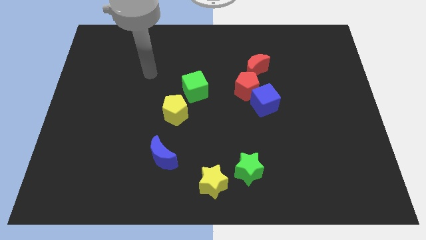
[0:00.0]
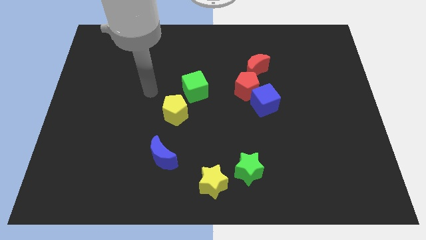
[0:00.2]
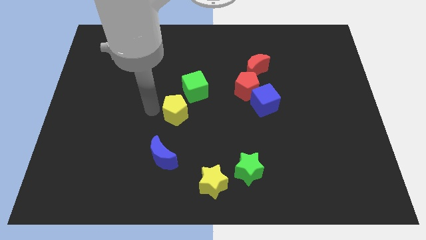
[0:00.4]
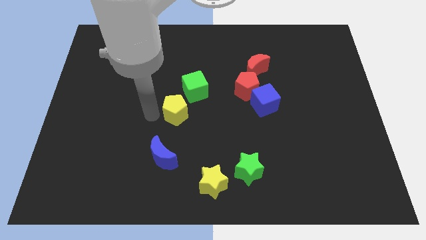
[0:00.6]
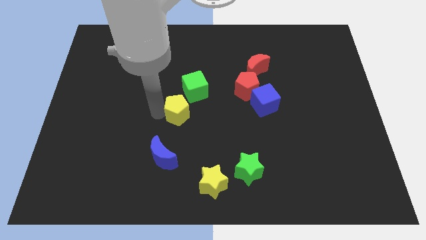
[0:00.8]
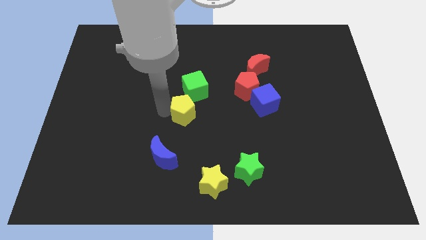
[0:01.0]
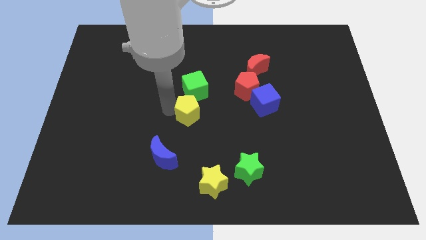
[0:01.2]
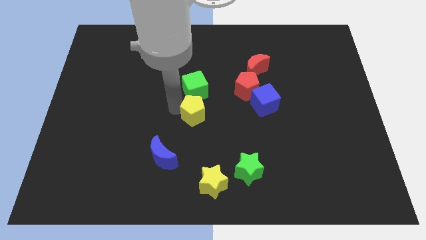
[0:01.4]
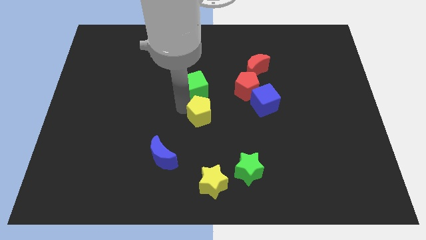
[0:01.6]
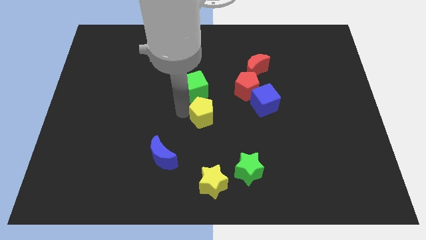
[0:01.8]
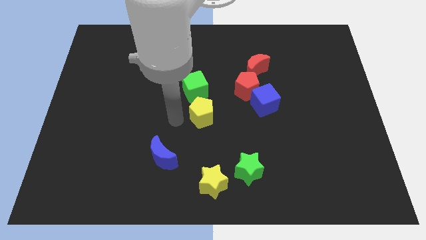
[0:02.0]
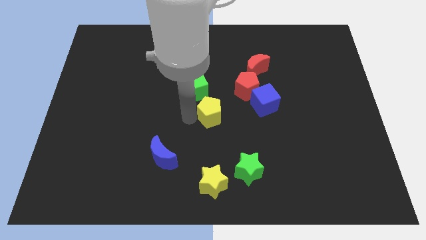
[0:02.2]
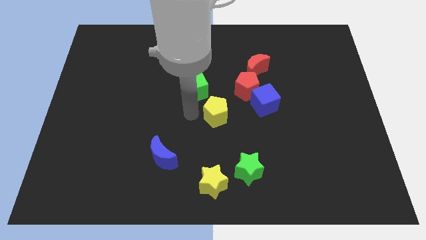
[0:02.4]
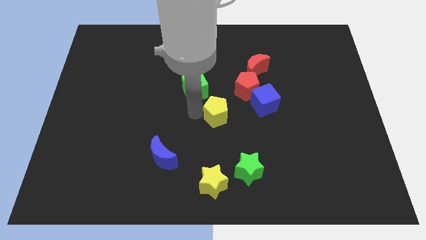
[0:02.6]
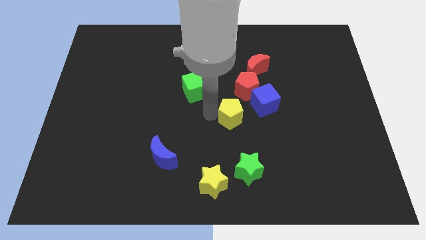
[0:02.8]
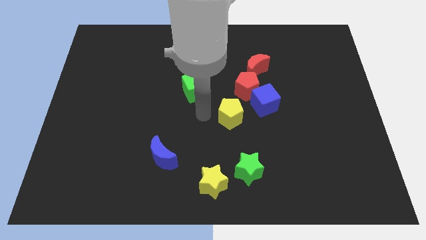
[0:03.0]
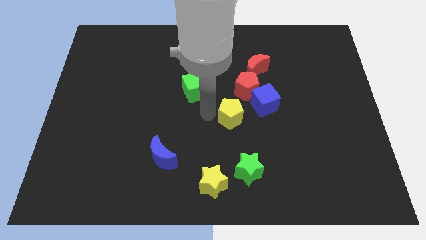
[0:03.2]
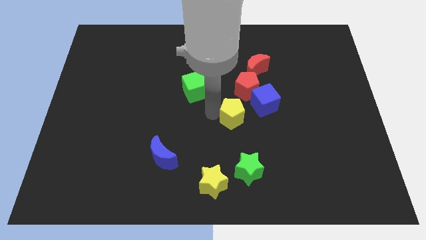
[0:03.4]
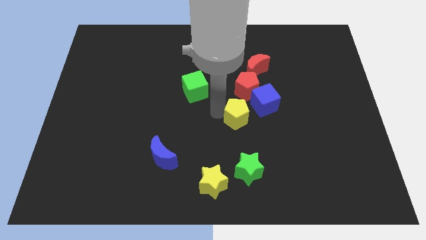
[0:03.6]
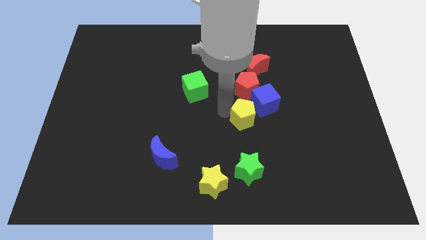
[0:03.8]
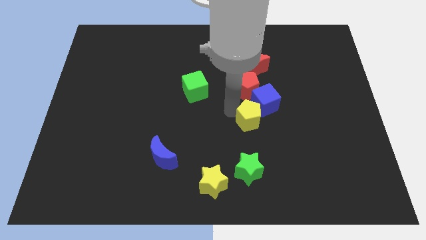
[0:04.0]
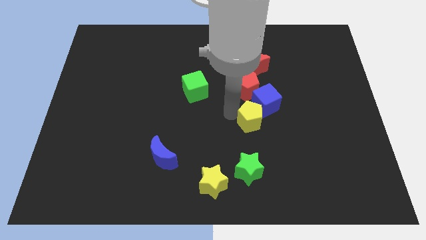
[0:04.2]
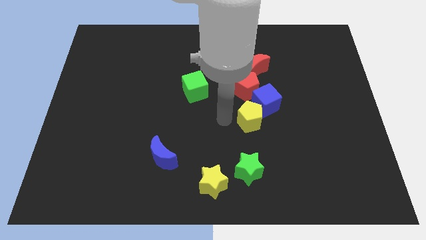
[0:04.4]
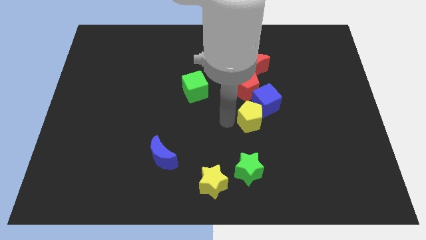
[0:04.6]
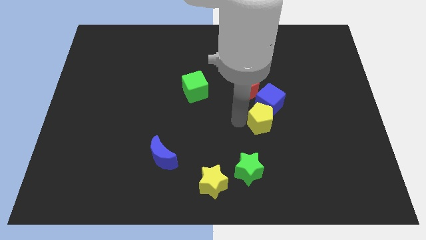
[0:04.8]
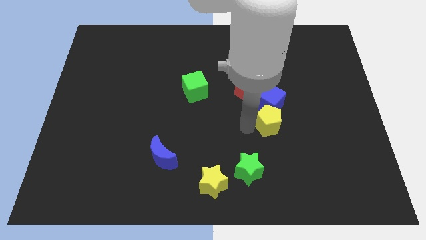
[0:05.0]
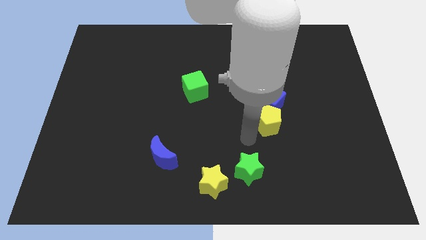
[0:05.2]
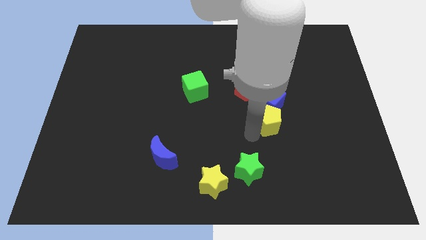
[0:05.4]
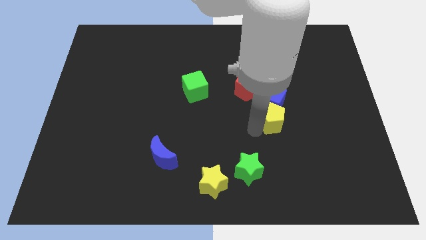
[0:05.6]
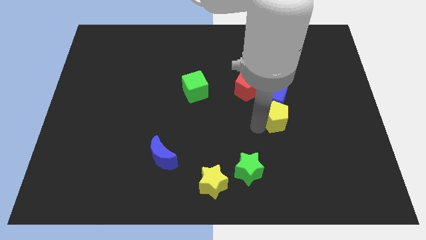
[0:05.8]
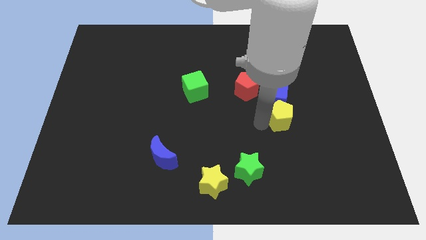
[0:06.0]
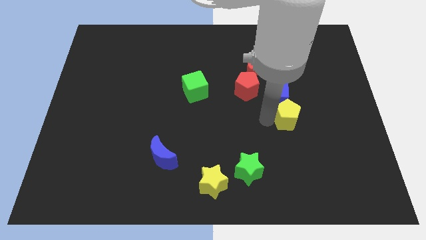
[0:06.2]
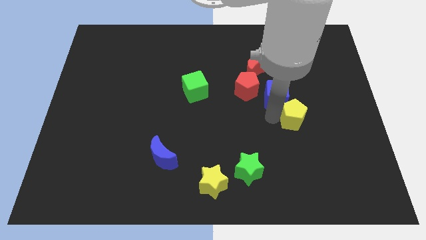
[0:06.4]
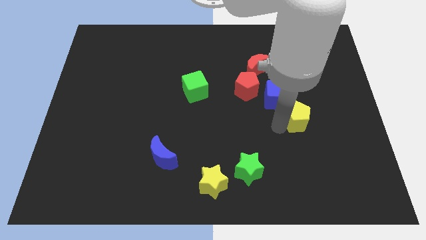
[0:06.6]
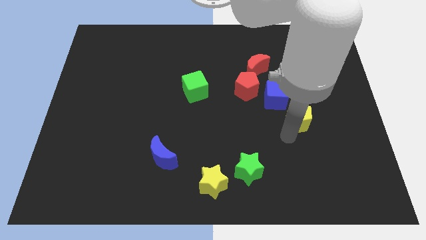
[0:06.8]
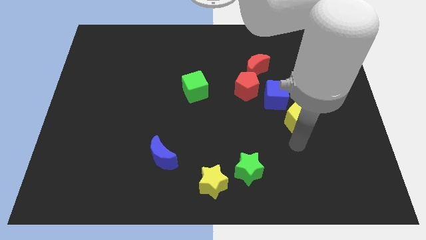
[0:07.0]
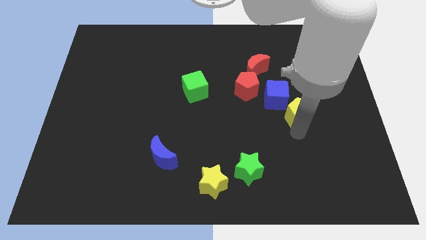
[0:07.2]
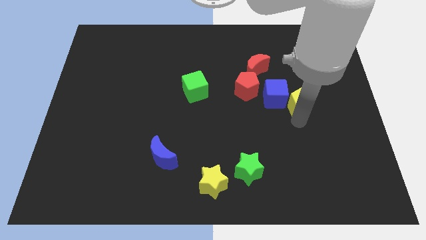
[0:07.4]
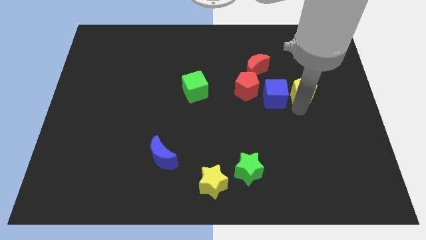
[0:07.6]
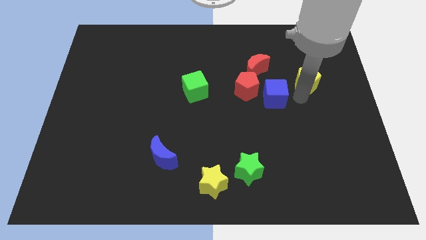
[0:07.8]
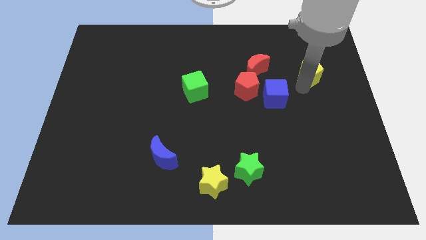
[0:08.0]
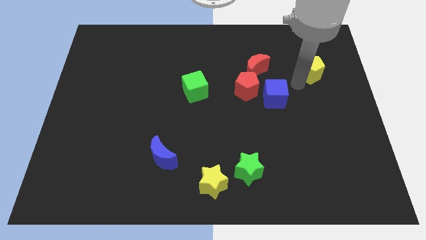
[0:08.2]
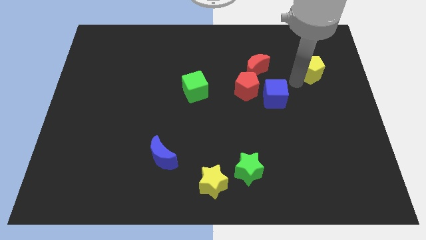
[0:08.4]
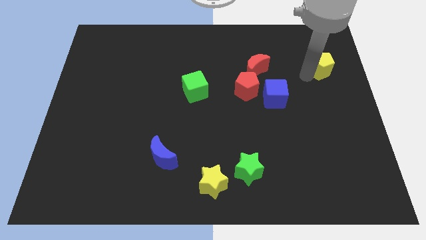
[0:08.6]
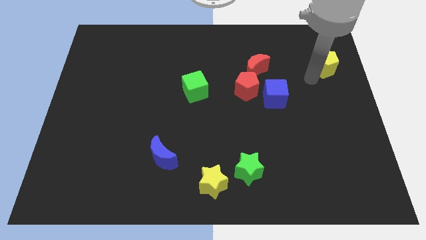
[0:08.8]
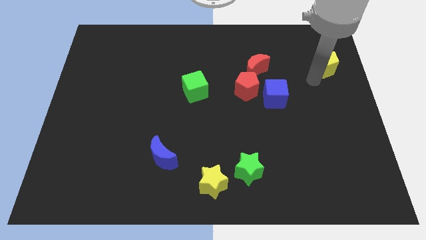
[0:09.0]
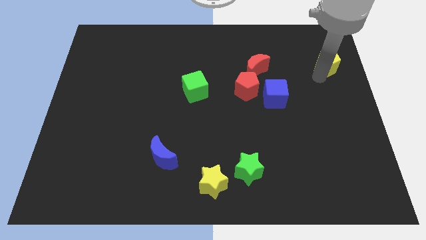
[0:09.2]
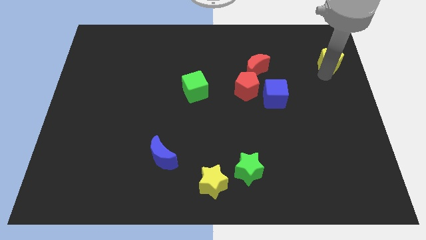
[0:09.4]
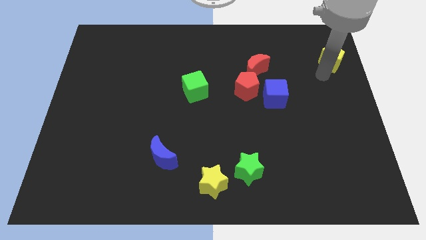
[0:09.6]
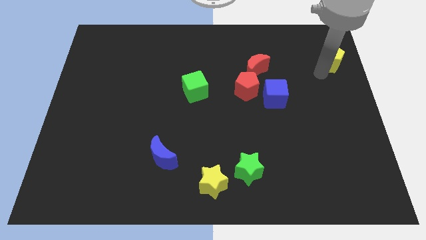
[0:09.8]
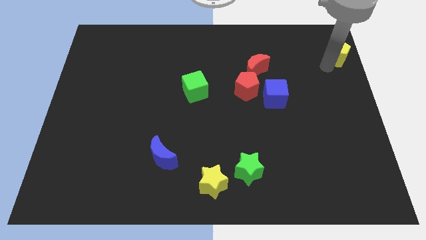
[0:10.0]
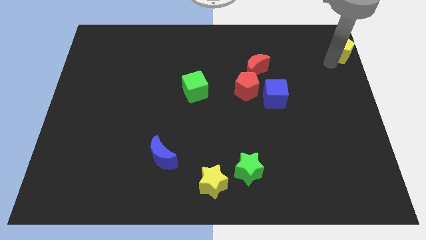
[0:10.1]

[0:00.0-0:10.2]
move the yellow pentagon to the upper right corner

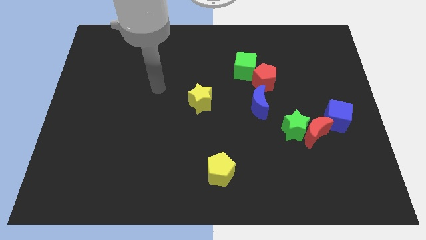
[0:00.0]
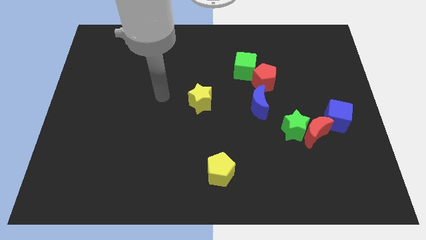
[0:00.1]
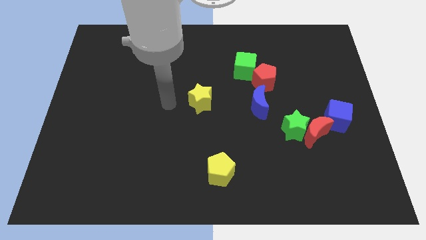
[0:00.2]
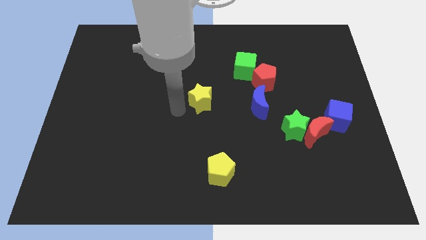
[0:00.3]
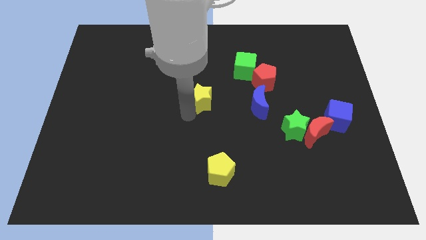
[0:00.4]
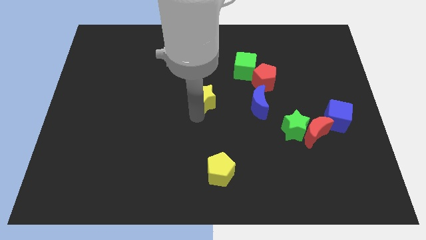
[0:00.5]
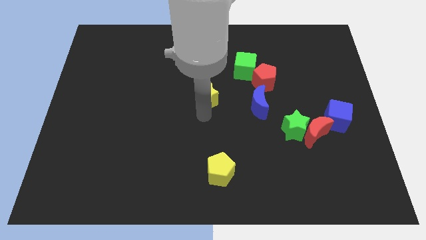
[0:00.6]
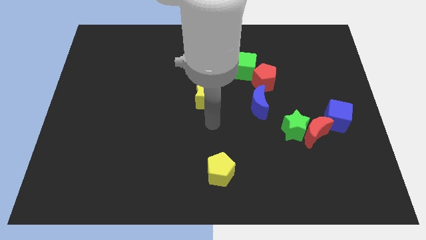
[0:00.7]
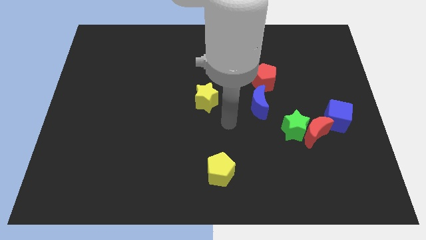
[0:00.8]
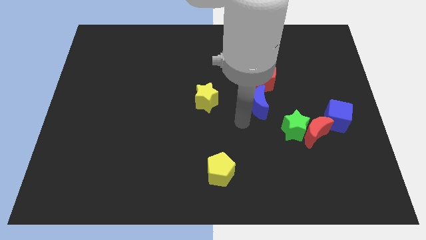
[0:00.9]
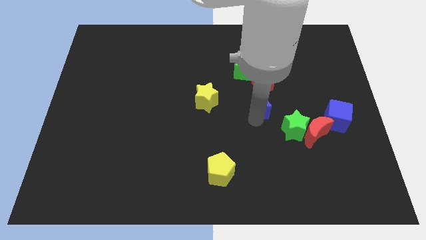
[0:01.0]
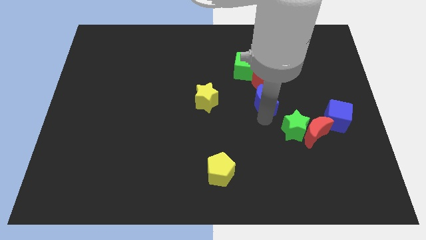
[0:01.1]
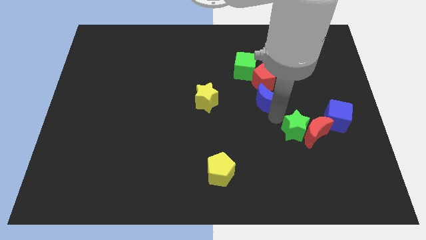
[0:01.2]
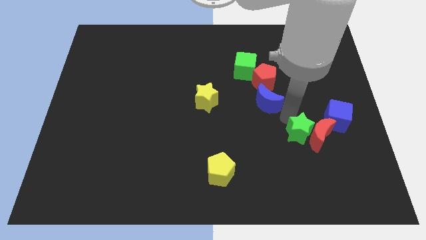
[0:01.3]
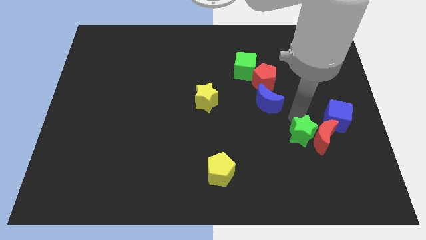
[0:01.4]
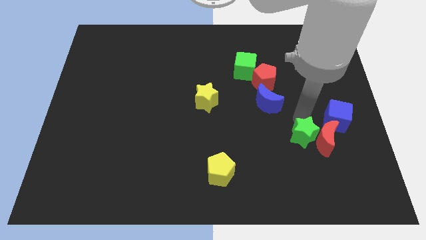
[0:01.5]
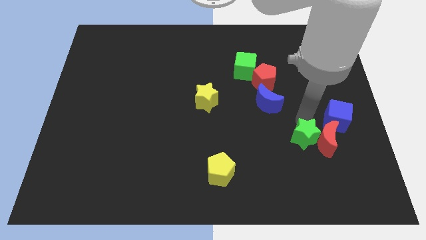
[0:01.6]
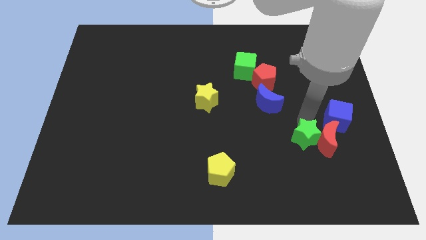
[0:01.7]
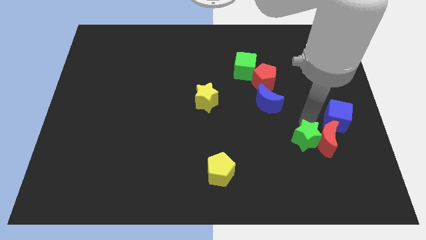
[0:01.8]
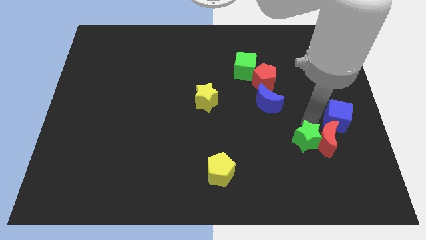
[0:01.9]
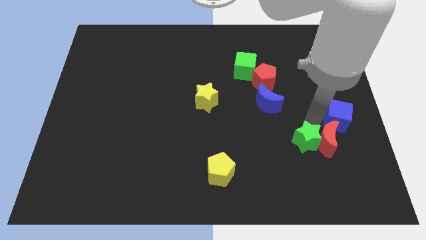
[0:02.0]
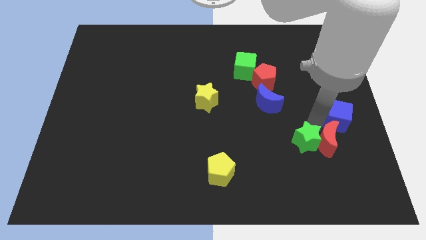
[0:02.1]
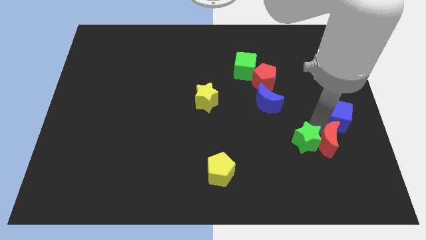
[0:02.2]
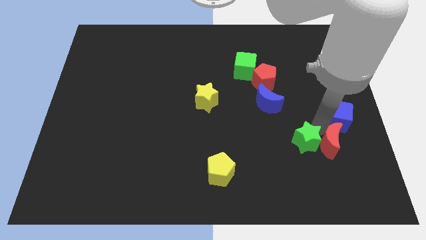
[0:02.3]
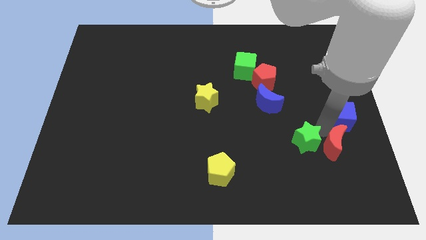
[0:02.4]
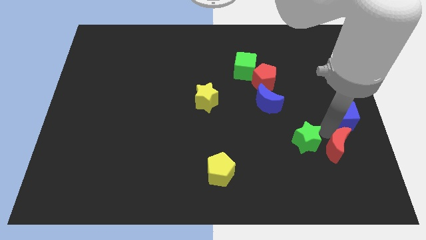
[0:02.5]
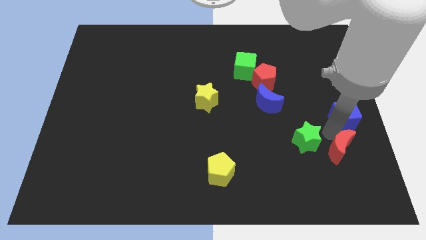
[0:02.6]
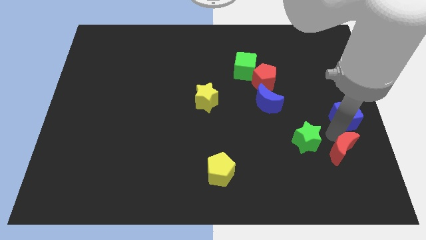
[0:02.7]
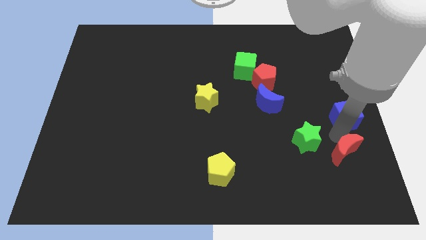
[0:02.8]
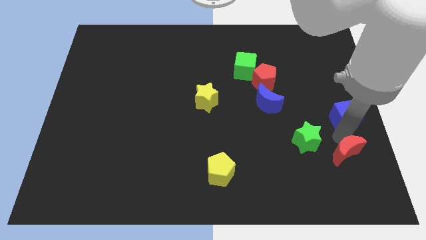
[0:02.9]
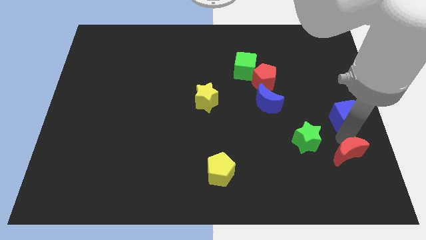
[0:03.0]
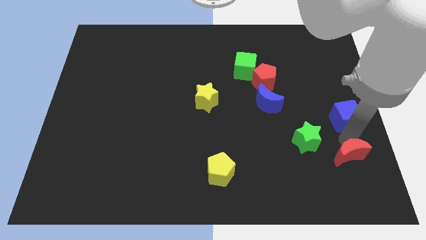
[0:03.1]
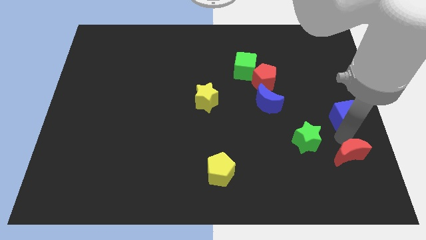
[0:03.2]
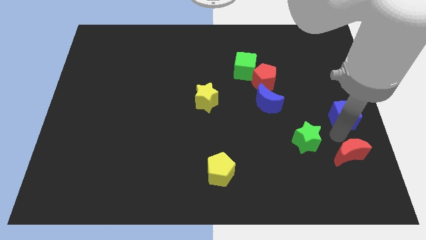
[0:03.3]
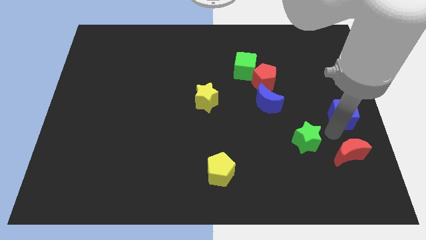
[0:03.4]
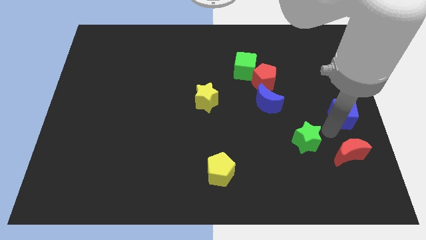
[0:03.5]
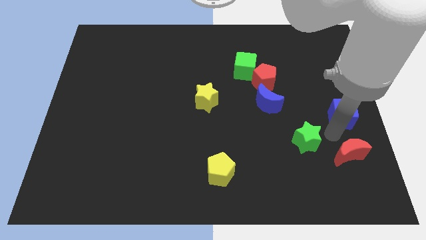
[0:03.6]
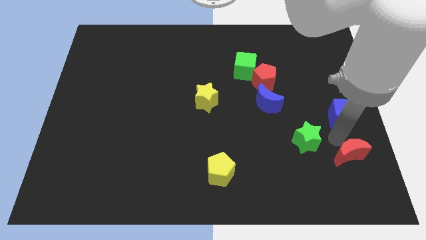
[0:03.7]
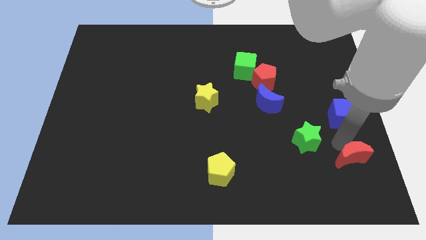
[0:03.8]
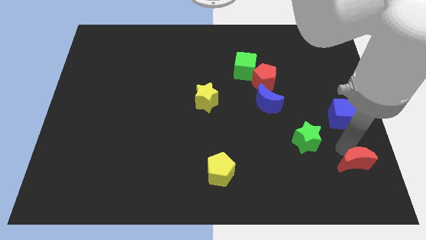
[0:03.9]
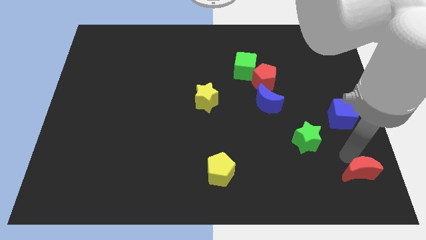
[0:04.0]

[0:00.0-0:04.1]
slide the red moon to the bottom right
